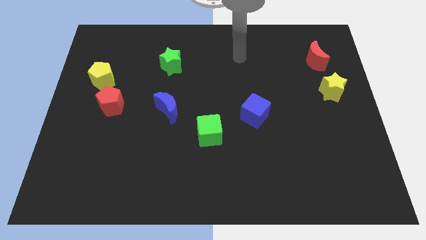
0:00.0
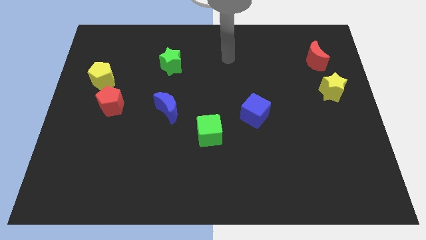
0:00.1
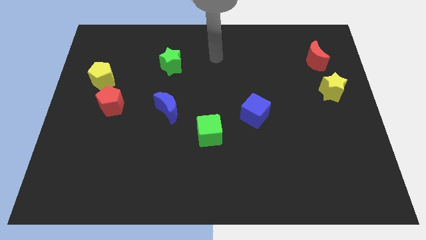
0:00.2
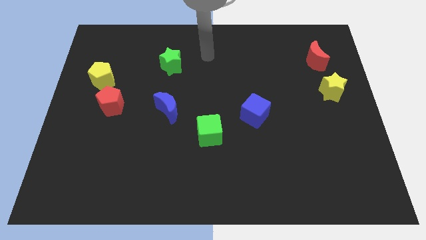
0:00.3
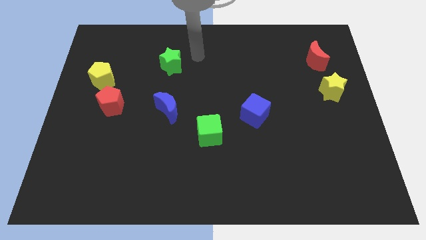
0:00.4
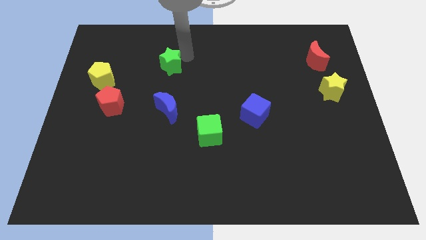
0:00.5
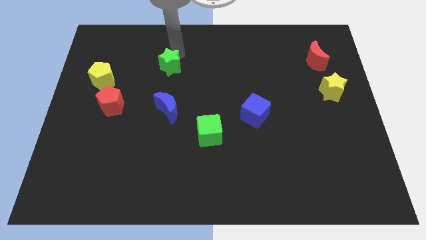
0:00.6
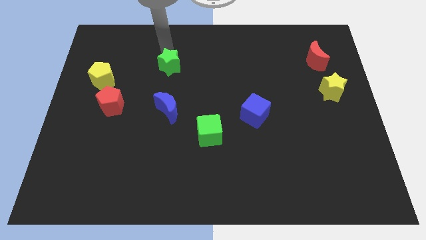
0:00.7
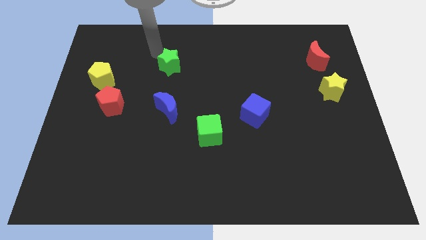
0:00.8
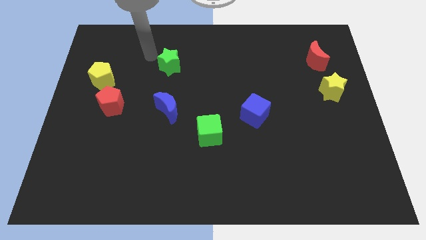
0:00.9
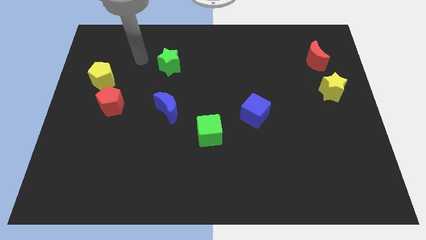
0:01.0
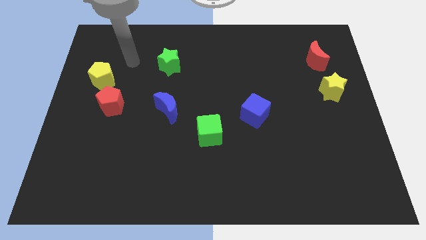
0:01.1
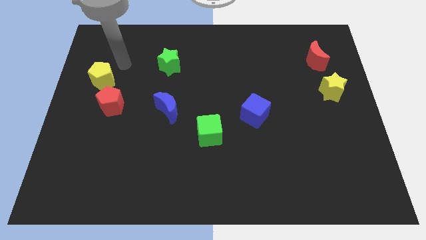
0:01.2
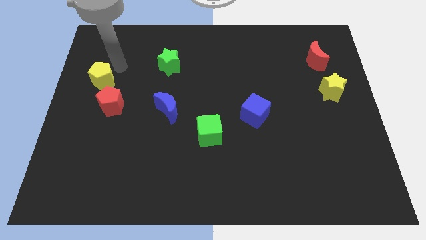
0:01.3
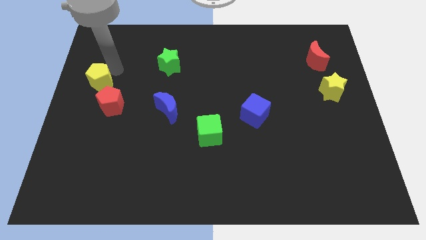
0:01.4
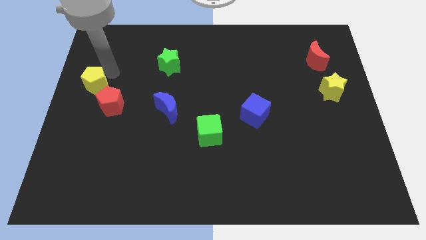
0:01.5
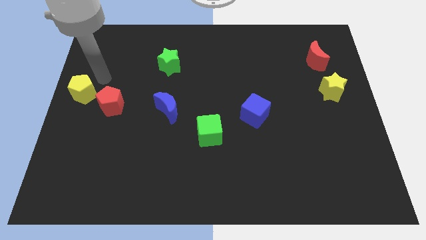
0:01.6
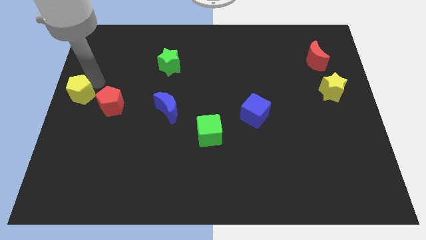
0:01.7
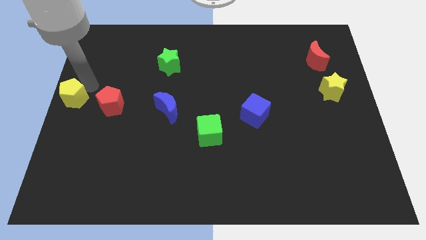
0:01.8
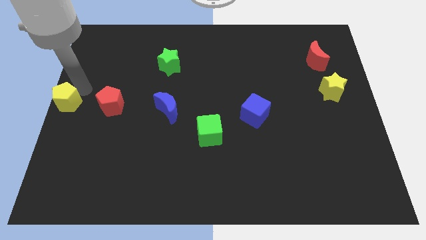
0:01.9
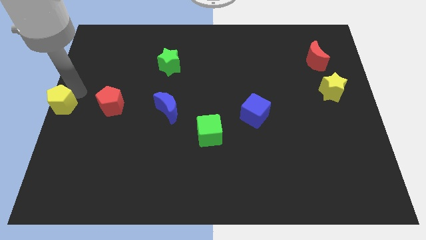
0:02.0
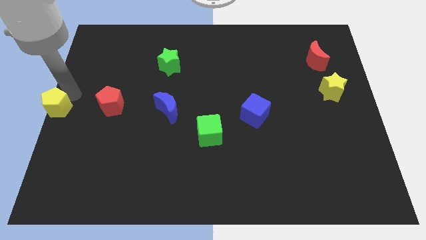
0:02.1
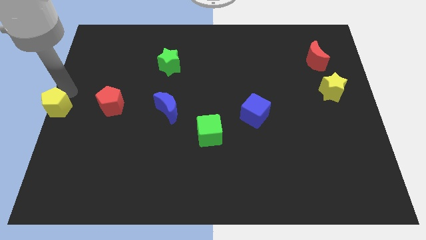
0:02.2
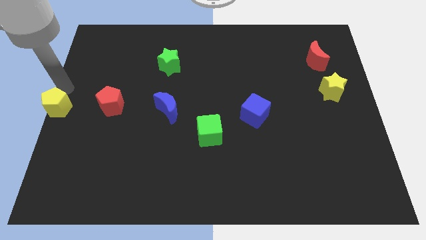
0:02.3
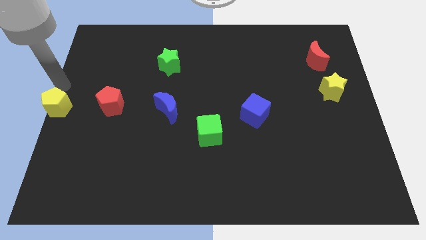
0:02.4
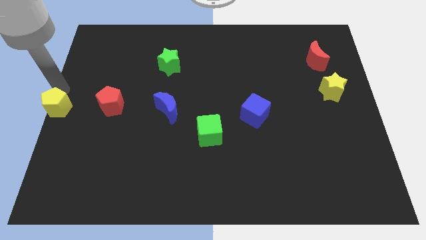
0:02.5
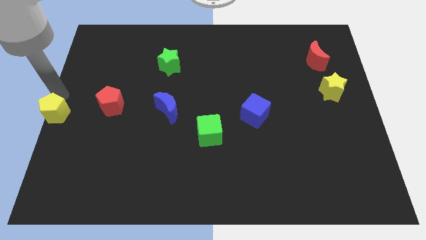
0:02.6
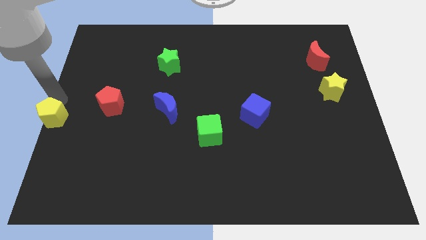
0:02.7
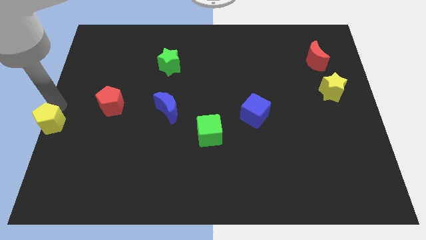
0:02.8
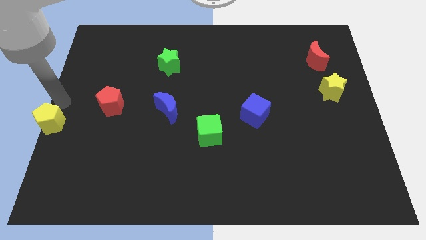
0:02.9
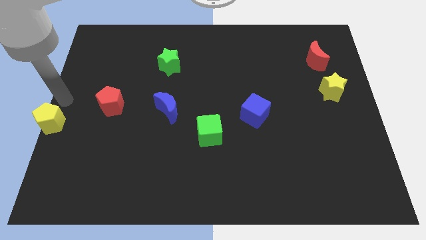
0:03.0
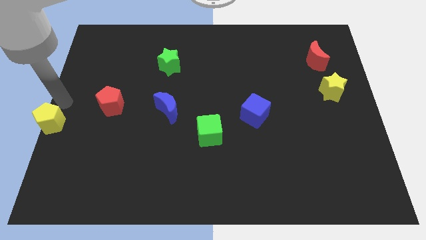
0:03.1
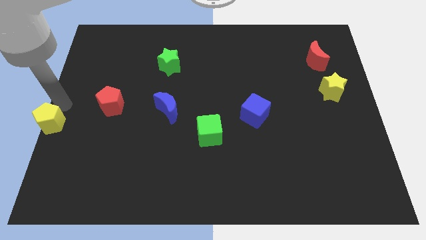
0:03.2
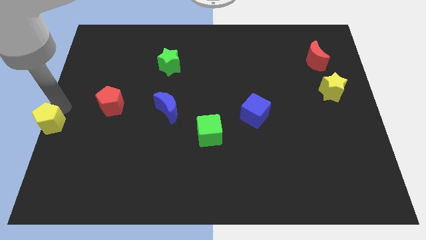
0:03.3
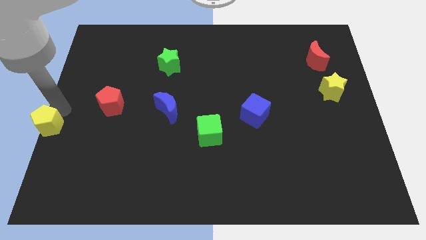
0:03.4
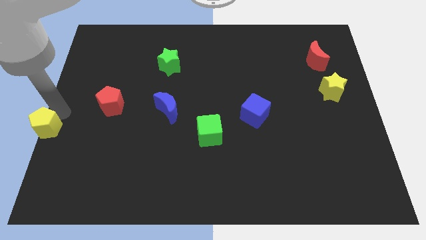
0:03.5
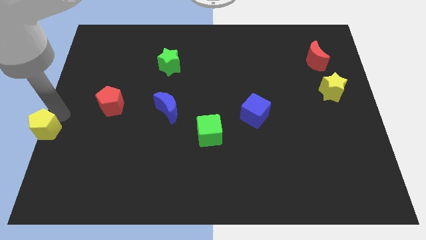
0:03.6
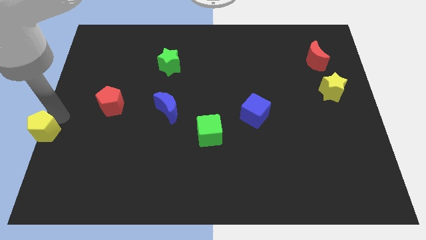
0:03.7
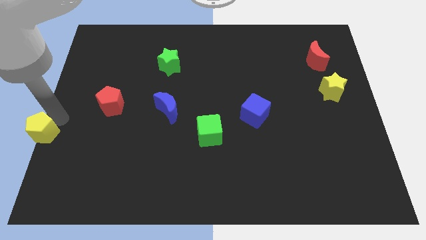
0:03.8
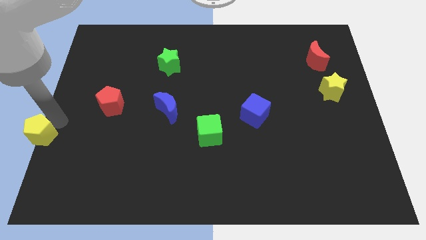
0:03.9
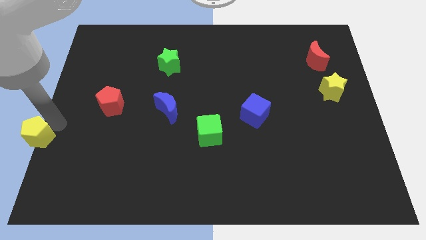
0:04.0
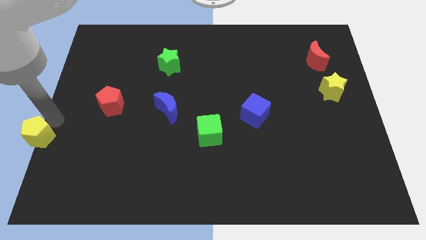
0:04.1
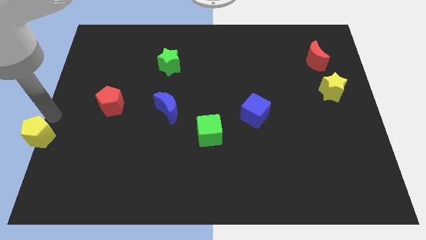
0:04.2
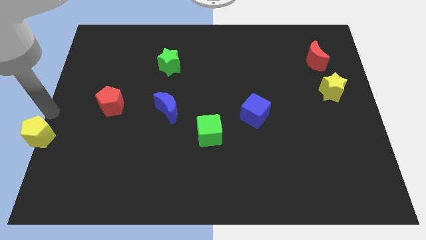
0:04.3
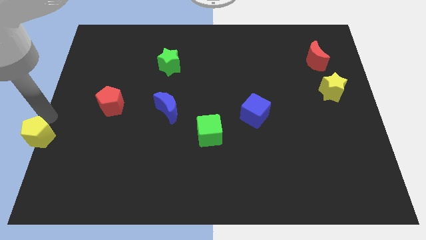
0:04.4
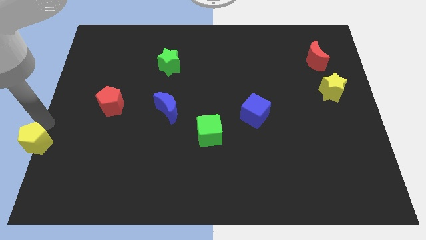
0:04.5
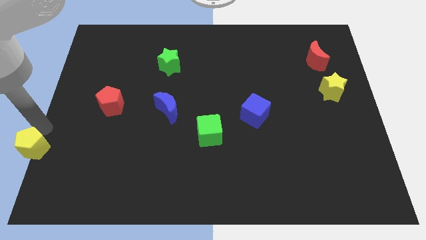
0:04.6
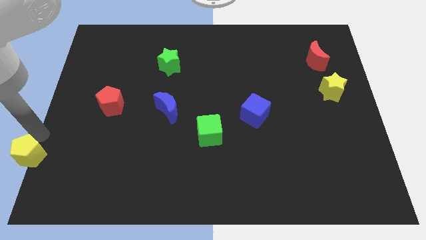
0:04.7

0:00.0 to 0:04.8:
put the yellow pentagon to the bottom left corner

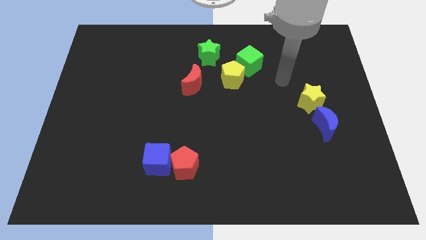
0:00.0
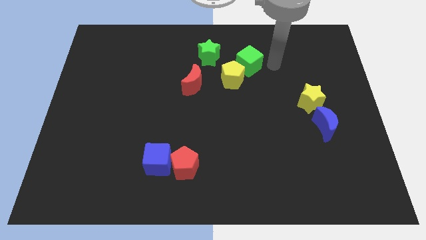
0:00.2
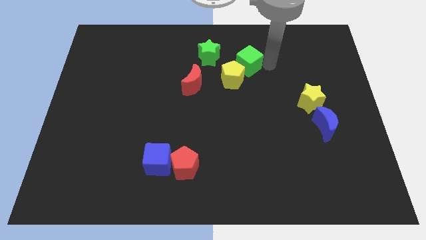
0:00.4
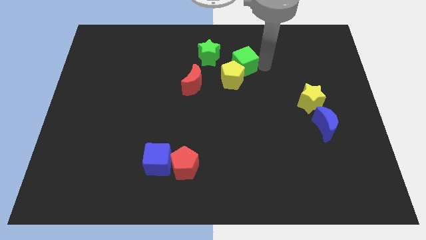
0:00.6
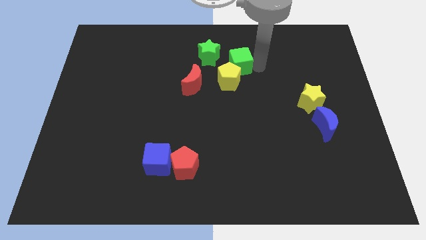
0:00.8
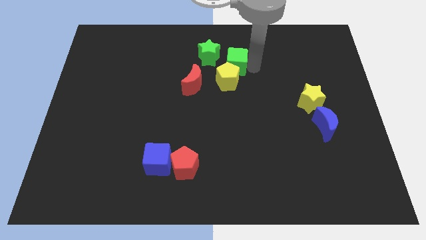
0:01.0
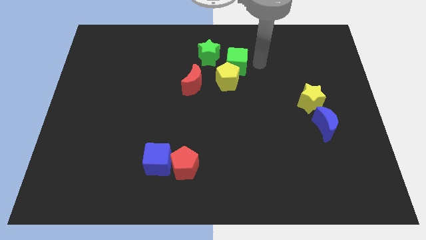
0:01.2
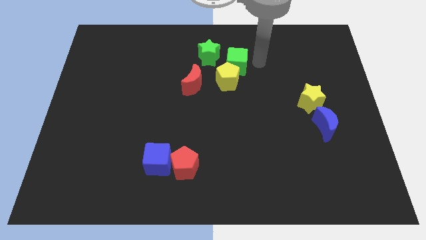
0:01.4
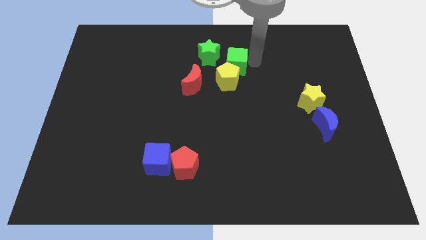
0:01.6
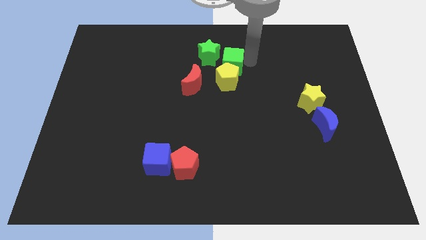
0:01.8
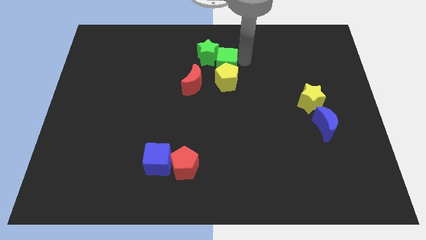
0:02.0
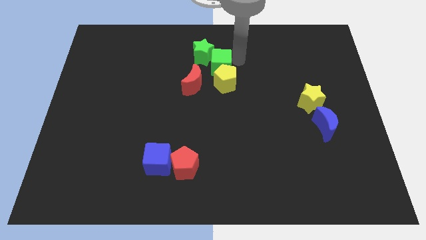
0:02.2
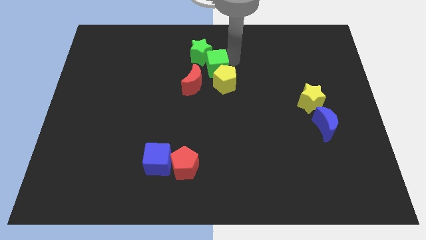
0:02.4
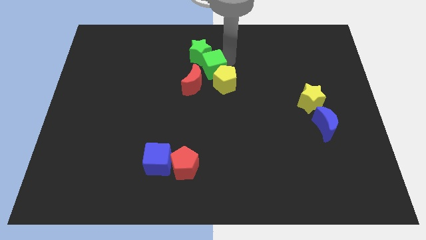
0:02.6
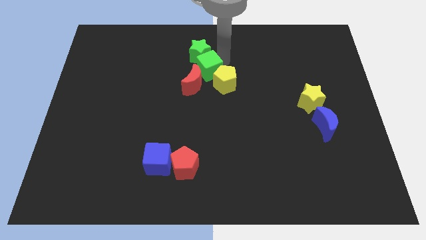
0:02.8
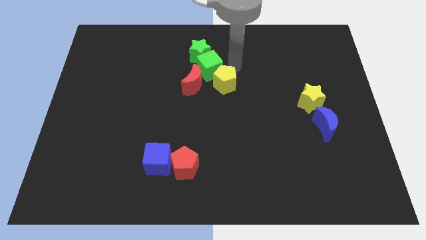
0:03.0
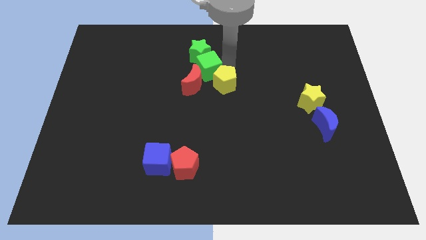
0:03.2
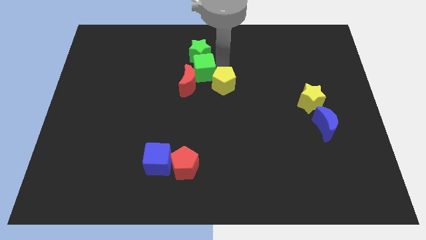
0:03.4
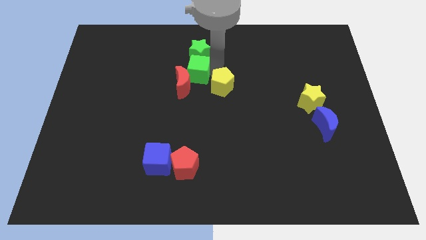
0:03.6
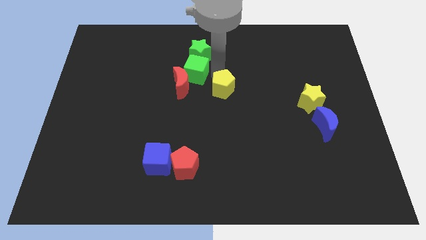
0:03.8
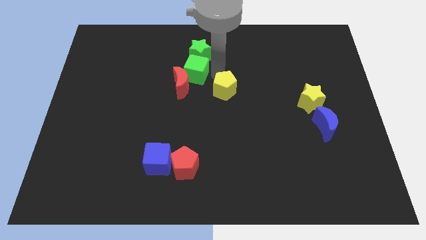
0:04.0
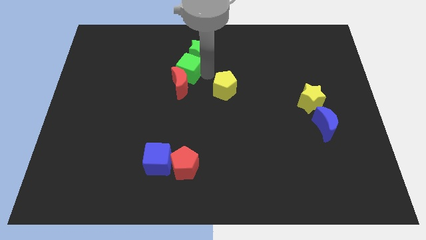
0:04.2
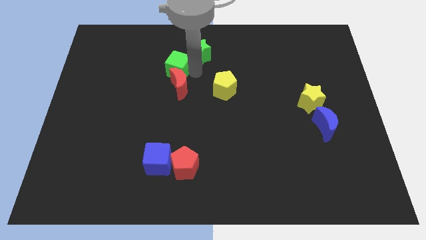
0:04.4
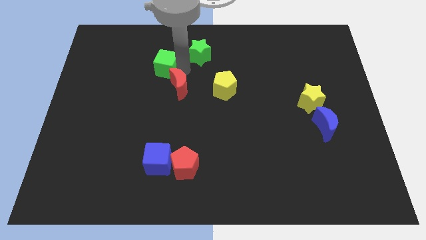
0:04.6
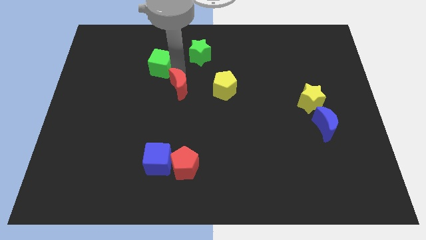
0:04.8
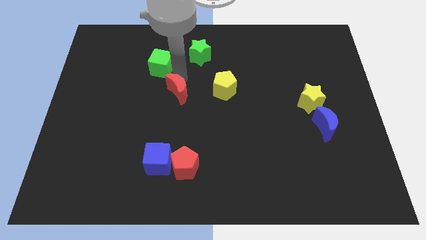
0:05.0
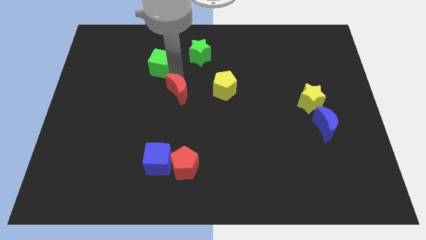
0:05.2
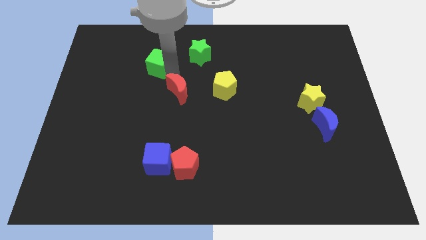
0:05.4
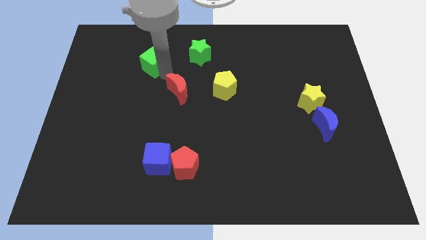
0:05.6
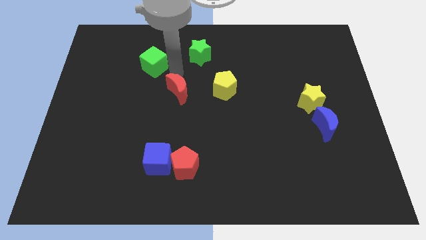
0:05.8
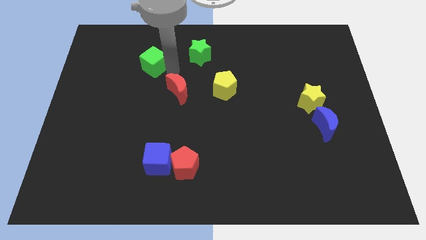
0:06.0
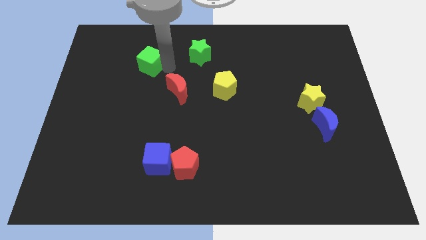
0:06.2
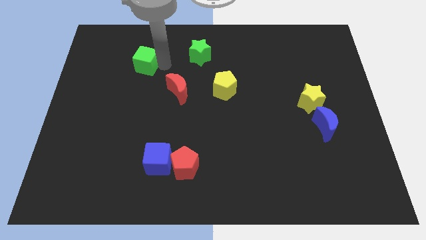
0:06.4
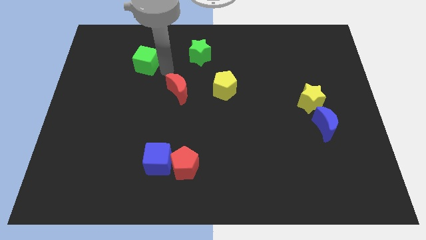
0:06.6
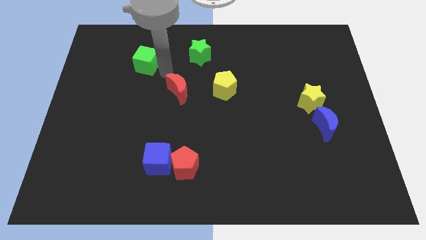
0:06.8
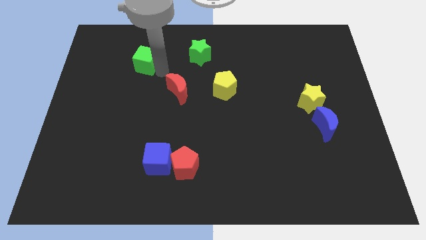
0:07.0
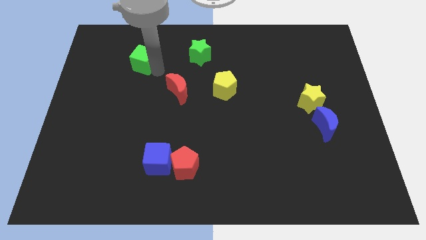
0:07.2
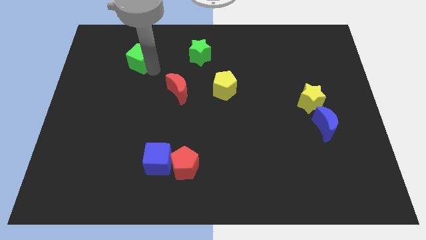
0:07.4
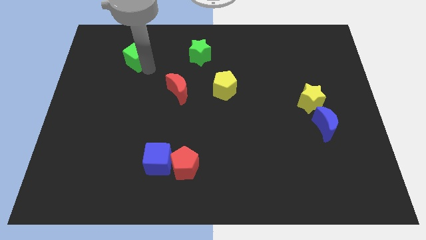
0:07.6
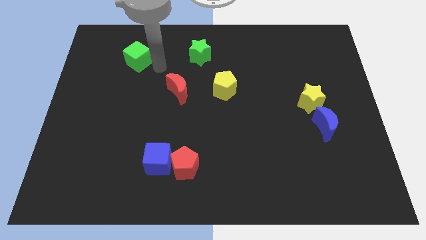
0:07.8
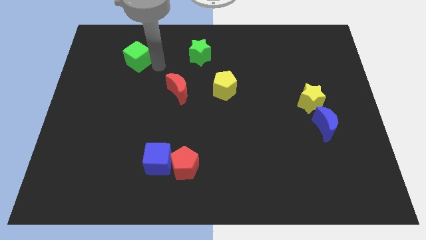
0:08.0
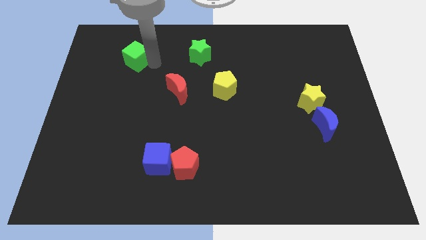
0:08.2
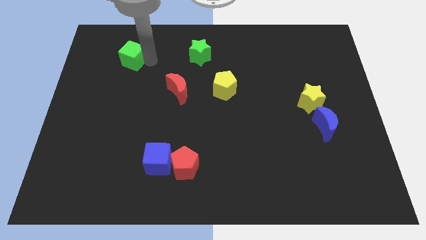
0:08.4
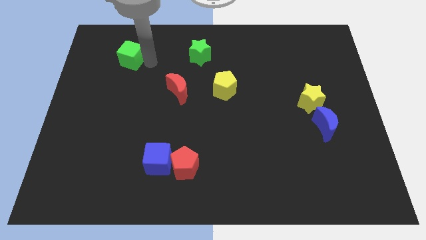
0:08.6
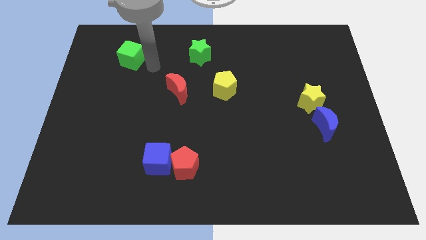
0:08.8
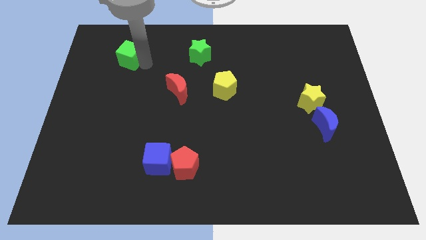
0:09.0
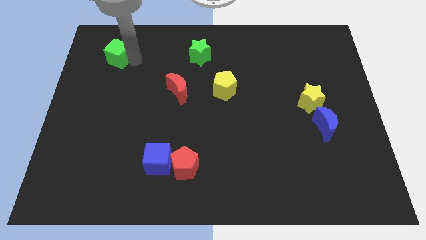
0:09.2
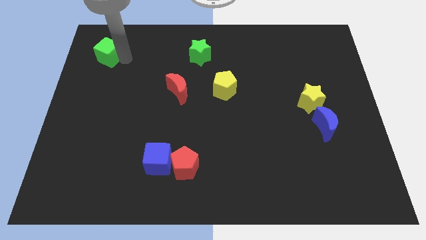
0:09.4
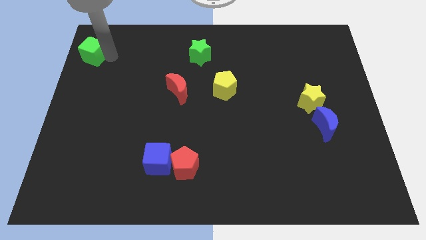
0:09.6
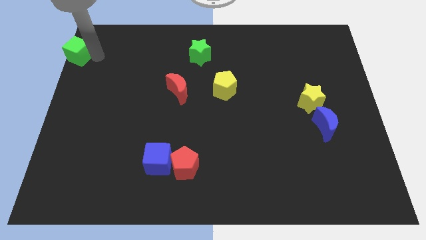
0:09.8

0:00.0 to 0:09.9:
push the green cube to the top left
